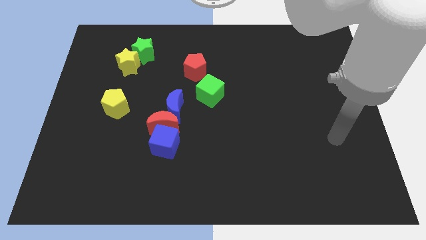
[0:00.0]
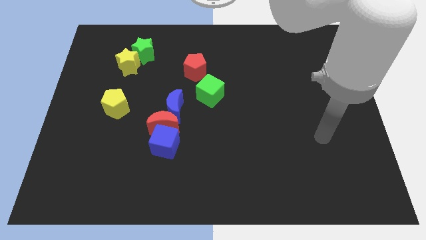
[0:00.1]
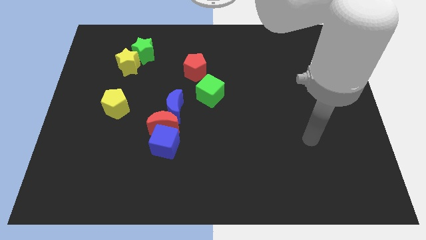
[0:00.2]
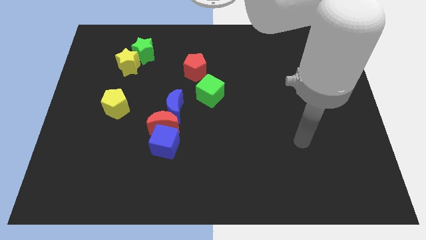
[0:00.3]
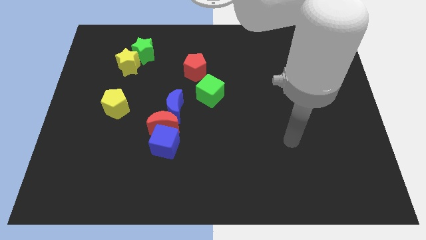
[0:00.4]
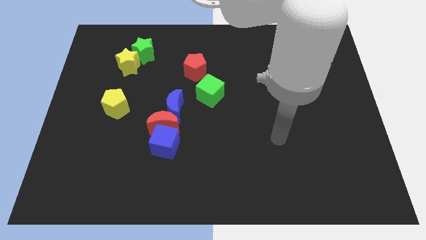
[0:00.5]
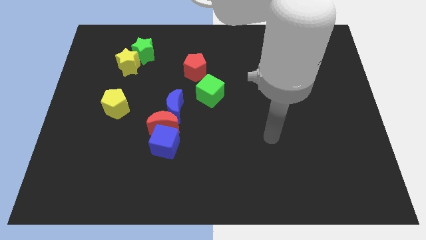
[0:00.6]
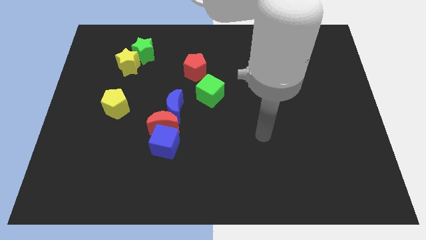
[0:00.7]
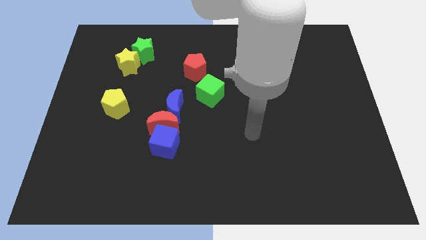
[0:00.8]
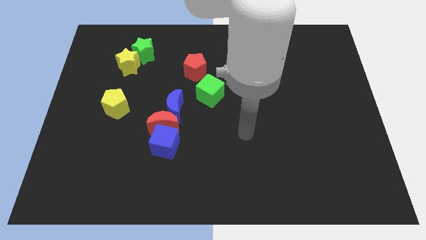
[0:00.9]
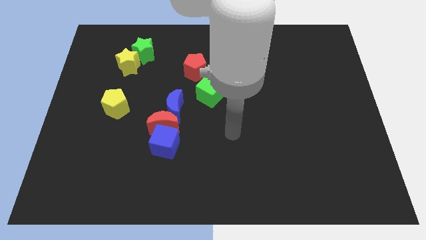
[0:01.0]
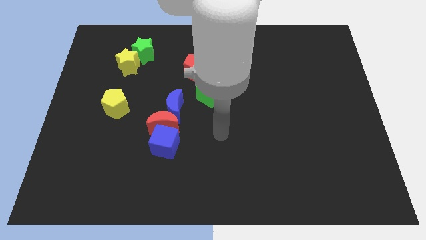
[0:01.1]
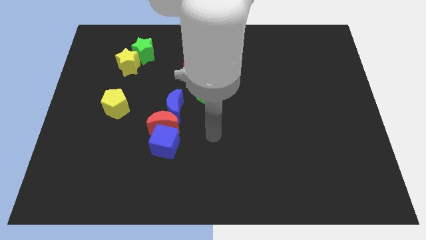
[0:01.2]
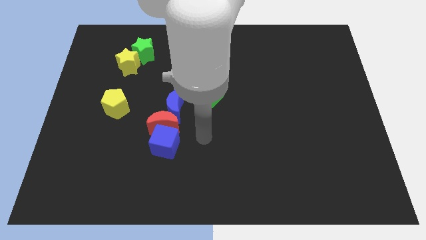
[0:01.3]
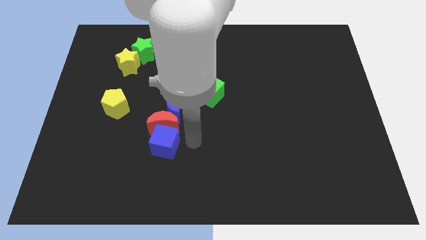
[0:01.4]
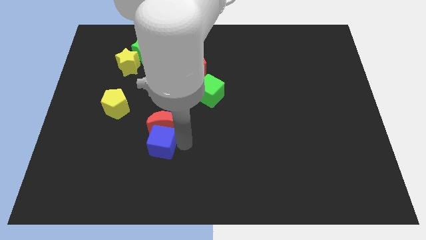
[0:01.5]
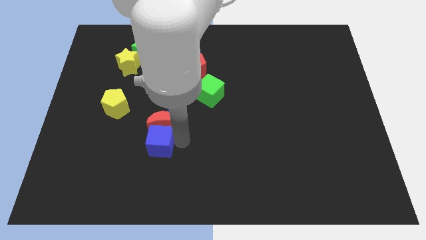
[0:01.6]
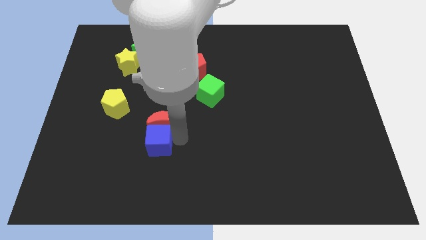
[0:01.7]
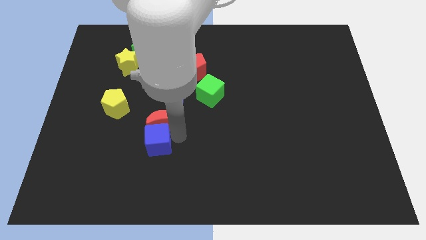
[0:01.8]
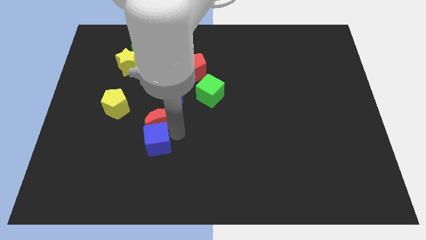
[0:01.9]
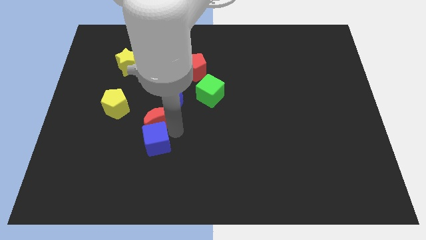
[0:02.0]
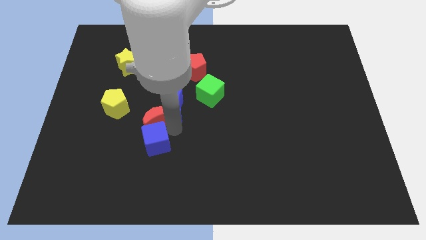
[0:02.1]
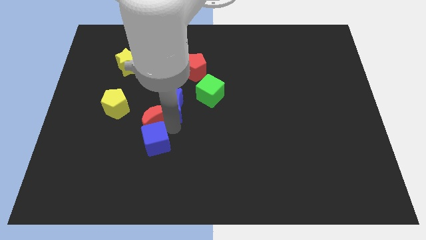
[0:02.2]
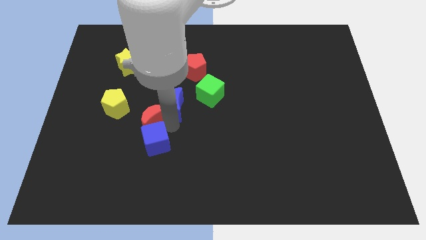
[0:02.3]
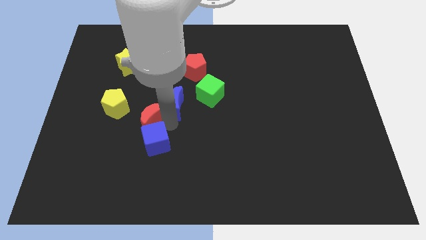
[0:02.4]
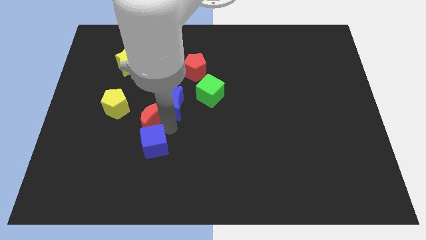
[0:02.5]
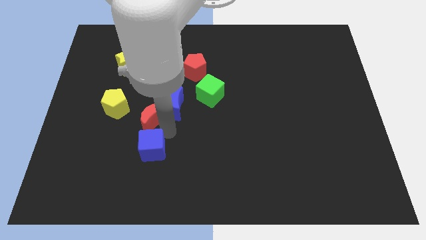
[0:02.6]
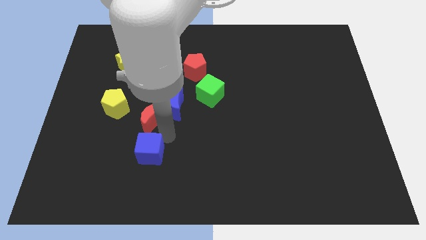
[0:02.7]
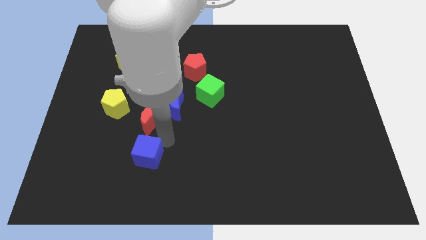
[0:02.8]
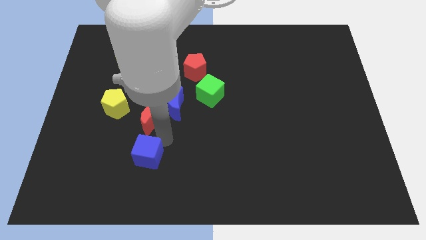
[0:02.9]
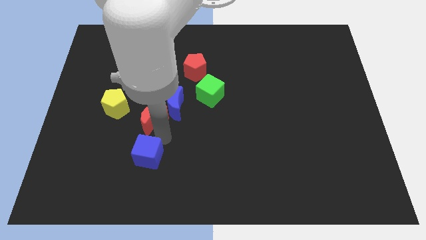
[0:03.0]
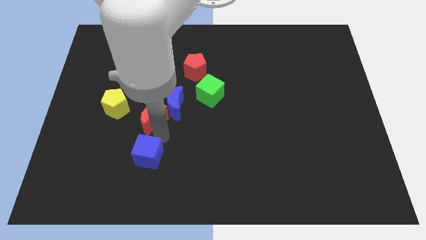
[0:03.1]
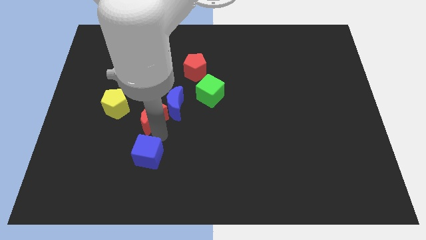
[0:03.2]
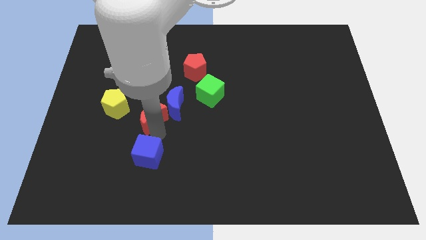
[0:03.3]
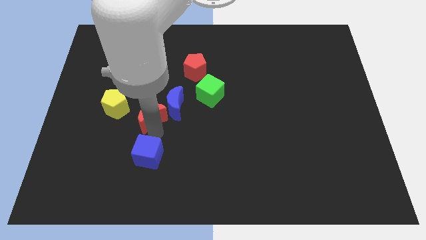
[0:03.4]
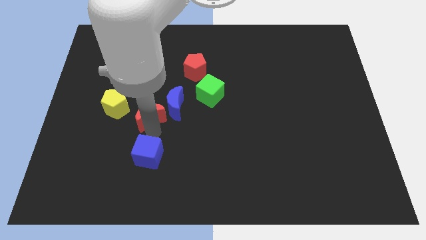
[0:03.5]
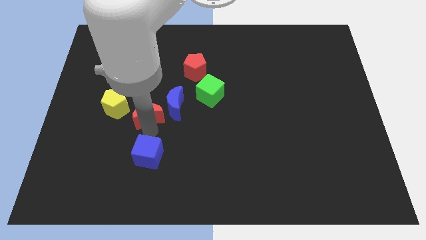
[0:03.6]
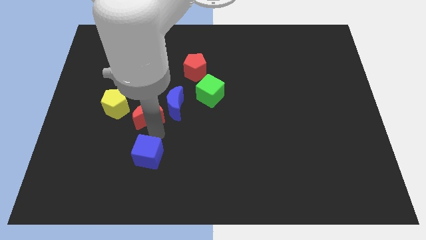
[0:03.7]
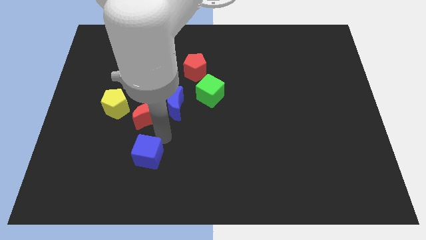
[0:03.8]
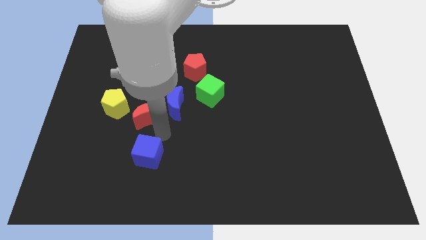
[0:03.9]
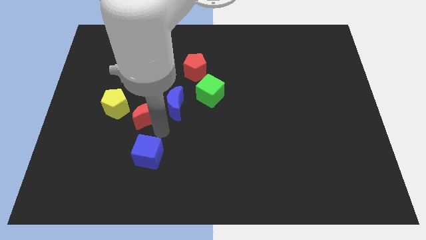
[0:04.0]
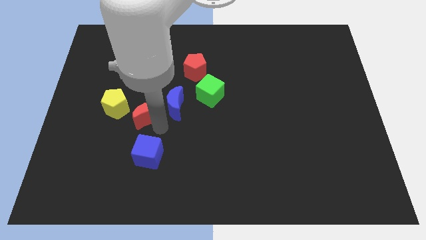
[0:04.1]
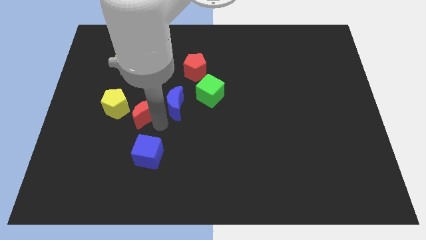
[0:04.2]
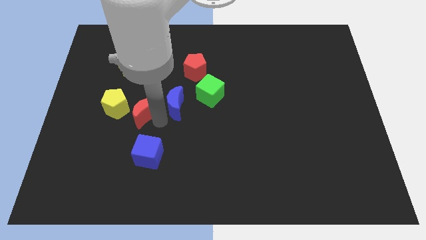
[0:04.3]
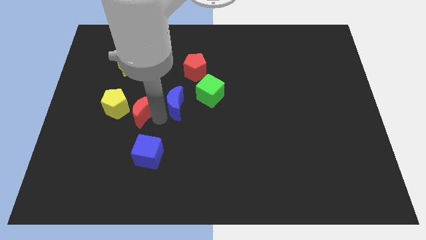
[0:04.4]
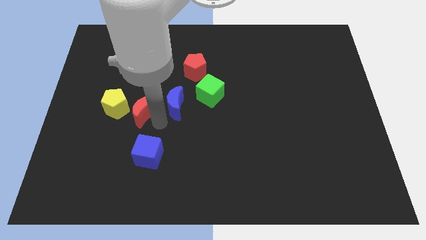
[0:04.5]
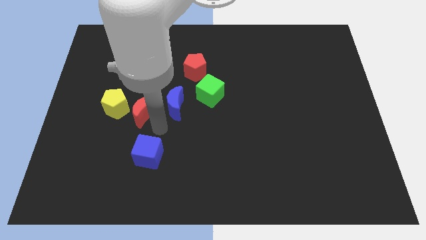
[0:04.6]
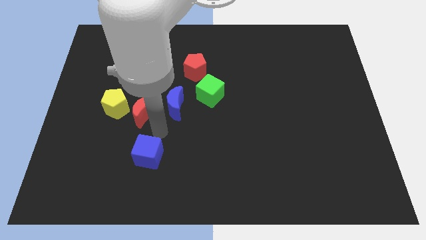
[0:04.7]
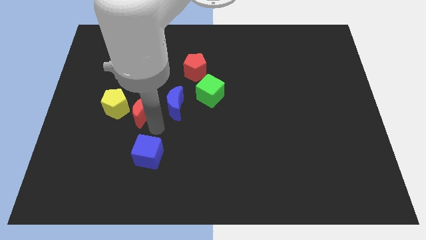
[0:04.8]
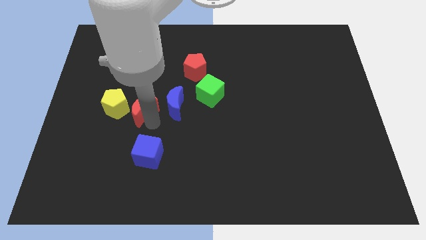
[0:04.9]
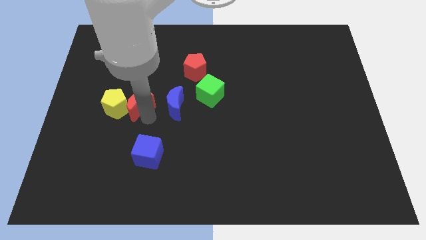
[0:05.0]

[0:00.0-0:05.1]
push the red moon upwards and then to the left a little bit

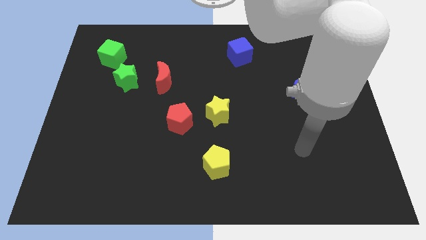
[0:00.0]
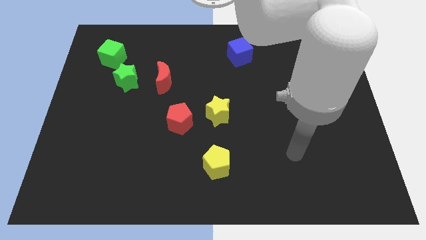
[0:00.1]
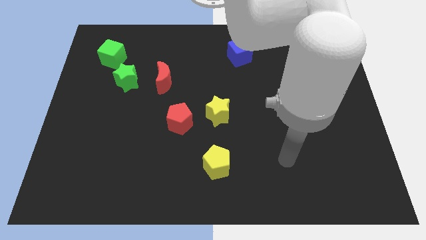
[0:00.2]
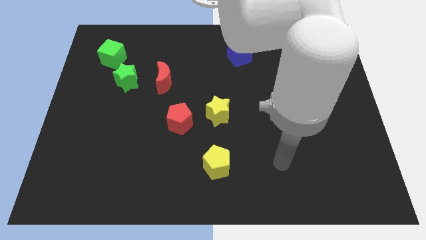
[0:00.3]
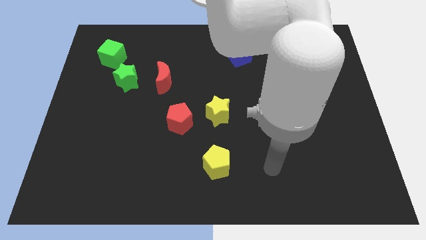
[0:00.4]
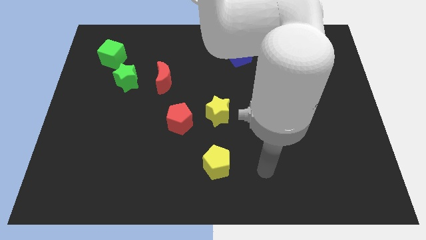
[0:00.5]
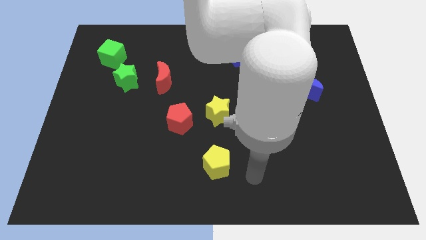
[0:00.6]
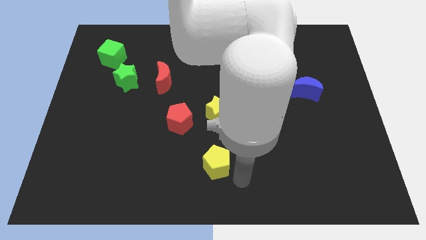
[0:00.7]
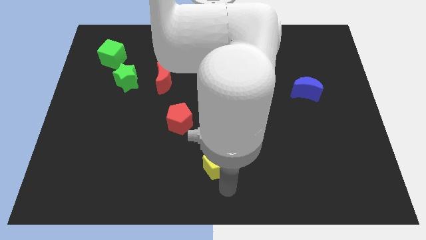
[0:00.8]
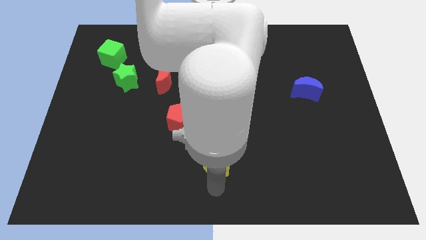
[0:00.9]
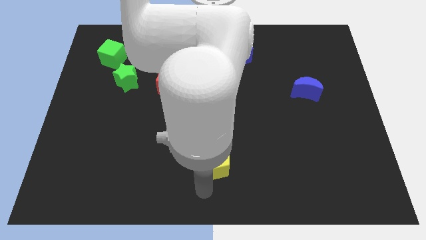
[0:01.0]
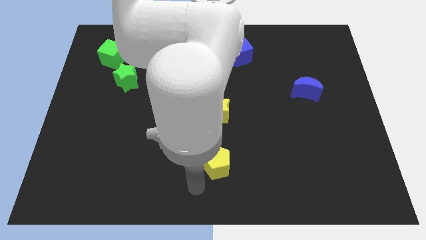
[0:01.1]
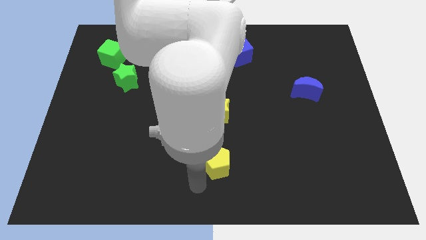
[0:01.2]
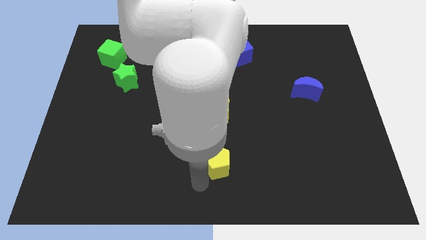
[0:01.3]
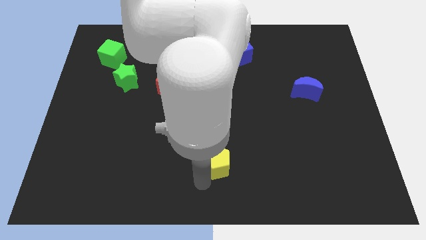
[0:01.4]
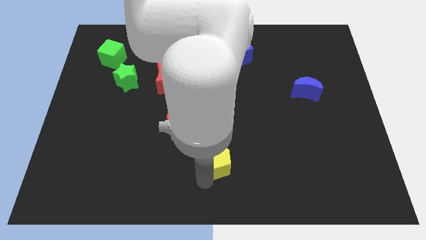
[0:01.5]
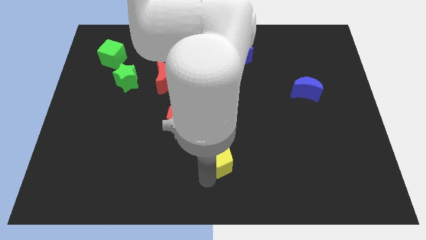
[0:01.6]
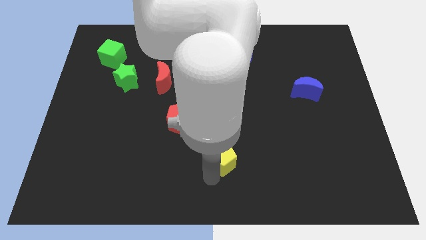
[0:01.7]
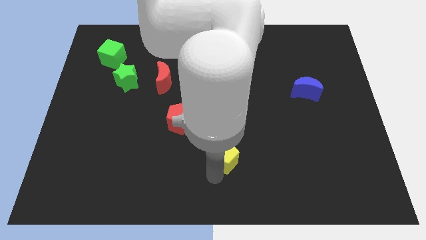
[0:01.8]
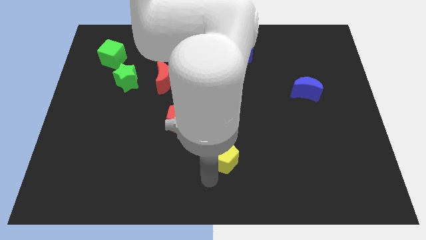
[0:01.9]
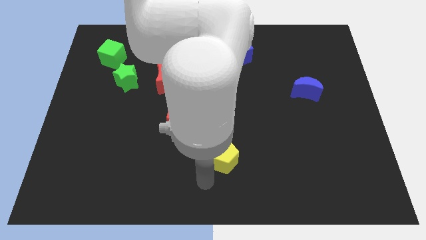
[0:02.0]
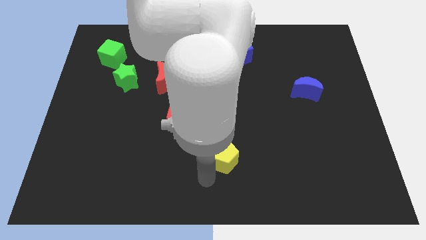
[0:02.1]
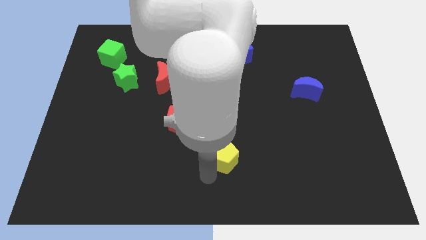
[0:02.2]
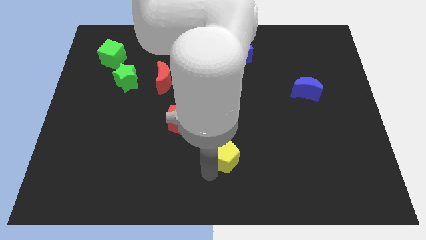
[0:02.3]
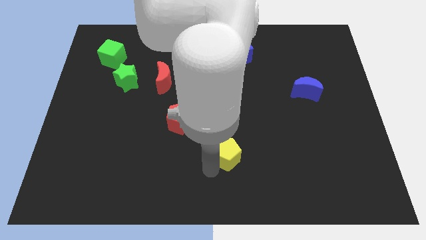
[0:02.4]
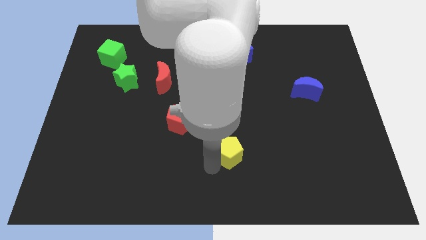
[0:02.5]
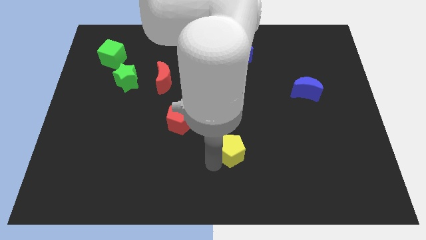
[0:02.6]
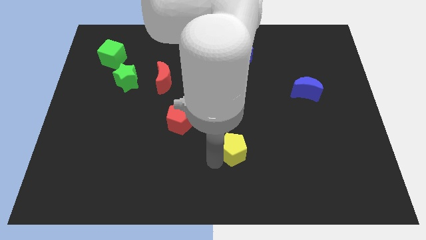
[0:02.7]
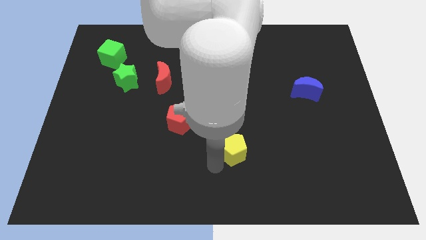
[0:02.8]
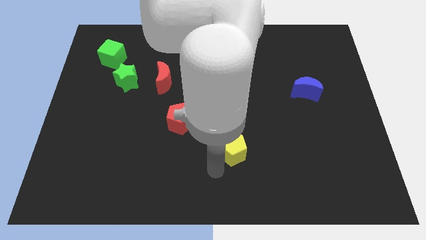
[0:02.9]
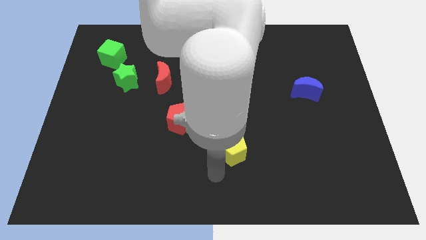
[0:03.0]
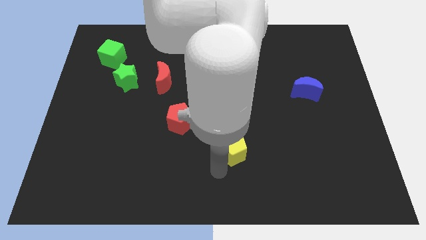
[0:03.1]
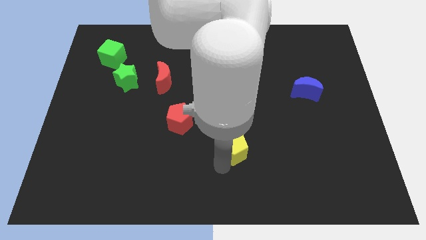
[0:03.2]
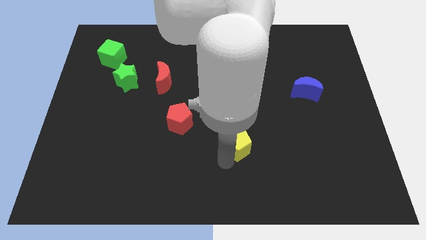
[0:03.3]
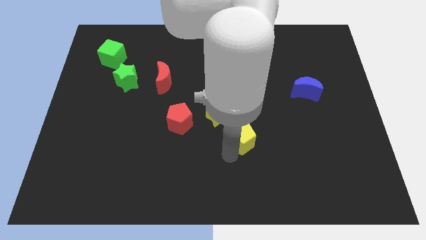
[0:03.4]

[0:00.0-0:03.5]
slightly slide the yellow pentagon upwards and then to the right
